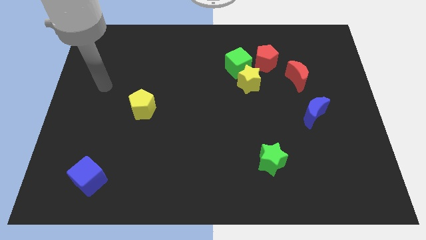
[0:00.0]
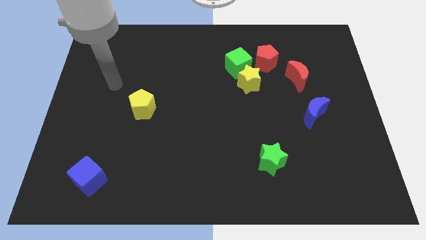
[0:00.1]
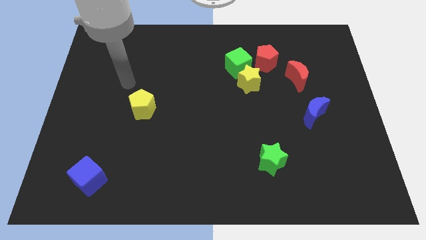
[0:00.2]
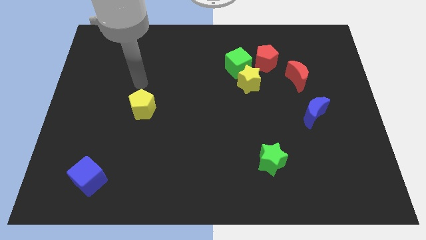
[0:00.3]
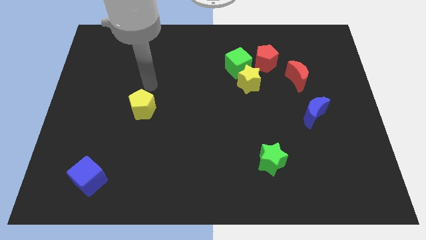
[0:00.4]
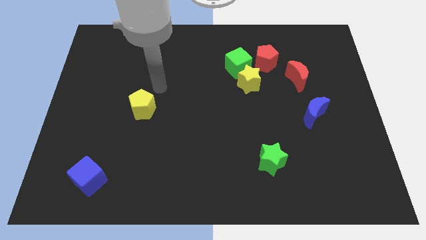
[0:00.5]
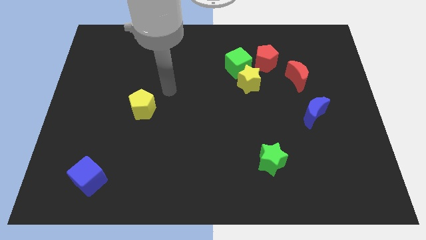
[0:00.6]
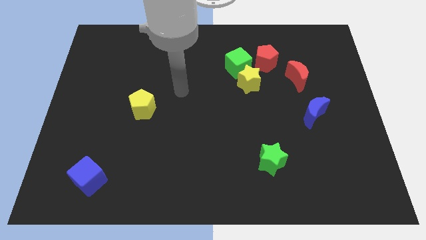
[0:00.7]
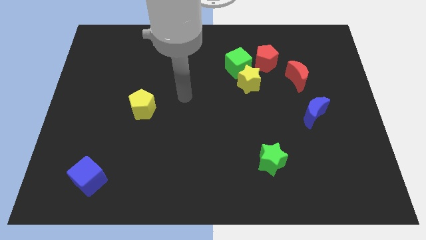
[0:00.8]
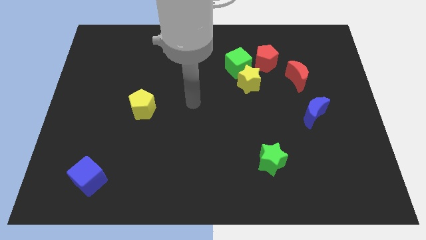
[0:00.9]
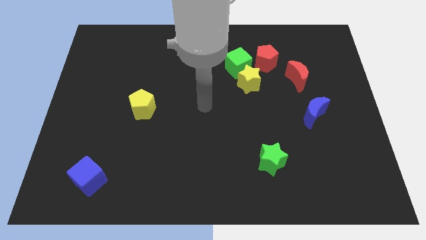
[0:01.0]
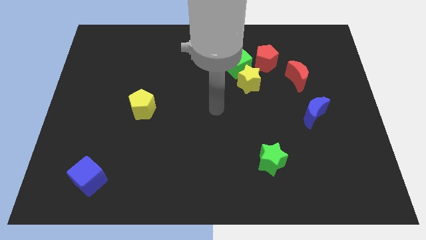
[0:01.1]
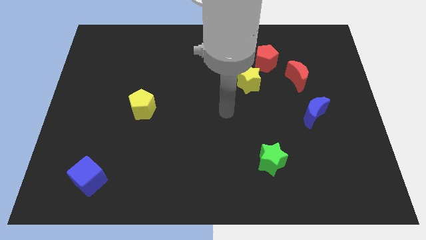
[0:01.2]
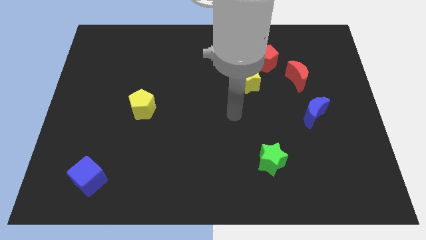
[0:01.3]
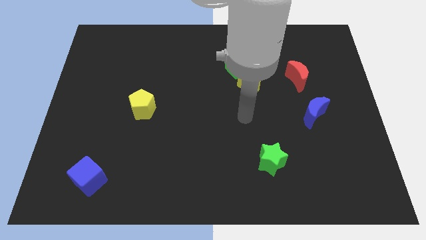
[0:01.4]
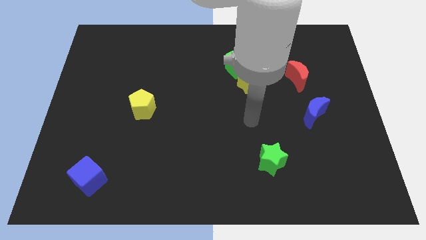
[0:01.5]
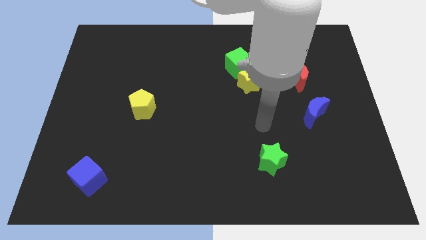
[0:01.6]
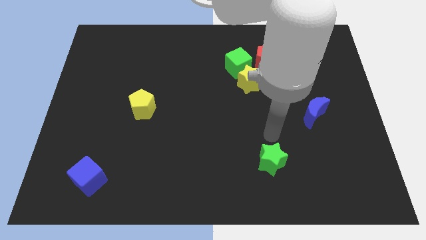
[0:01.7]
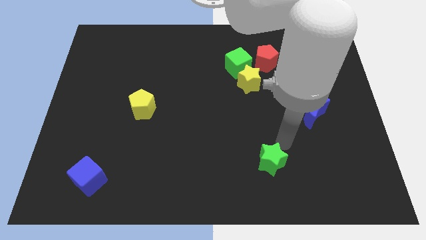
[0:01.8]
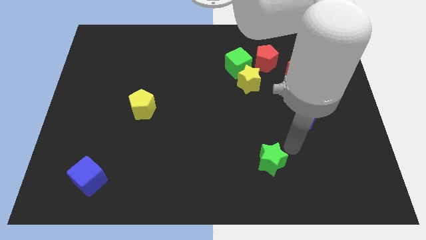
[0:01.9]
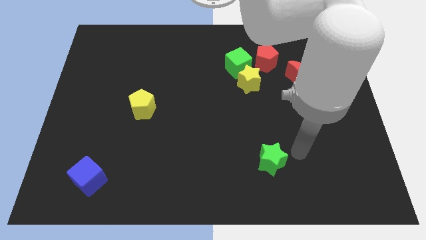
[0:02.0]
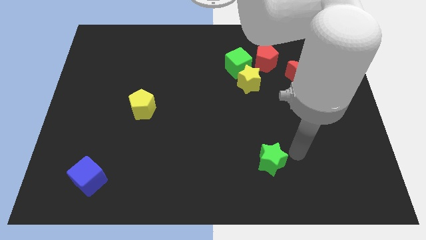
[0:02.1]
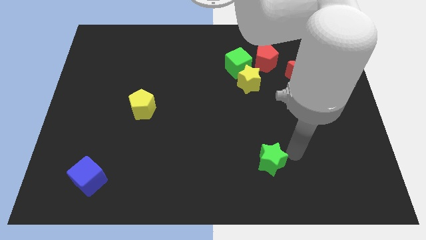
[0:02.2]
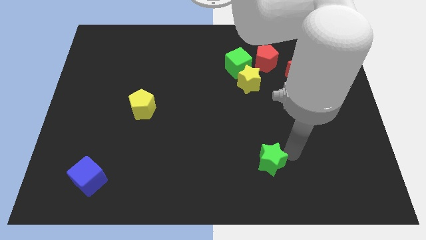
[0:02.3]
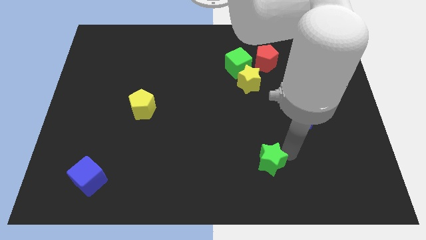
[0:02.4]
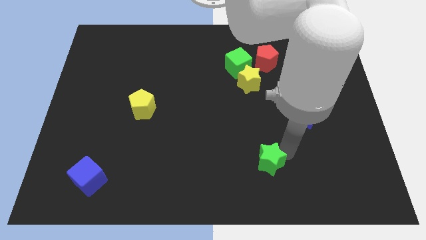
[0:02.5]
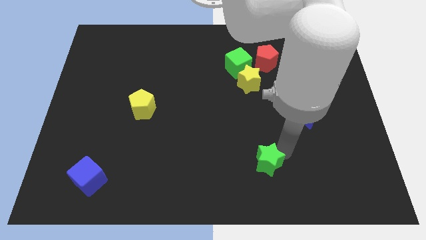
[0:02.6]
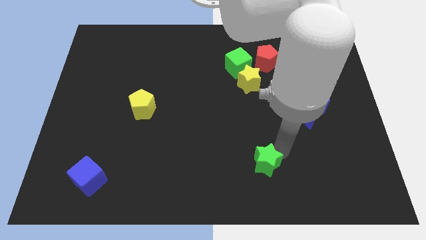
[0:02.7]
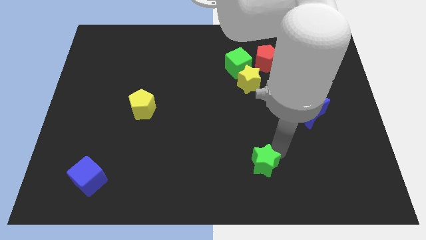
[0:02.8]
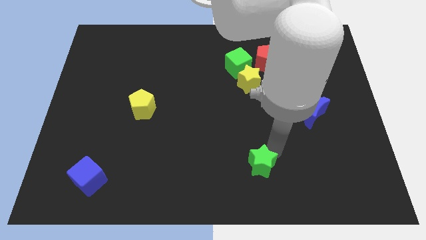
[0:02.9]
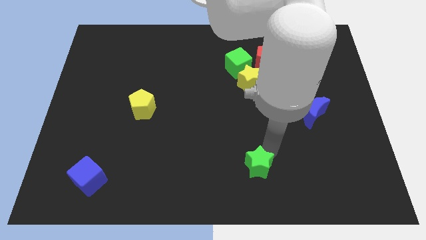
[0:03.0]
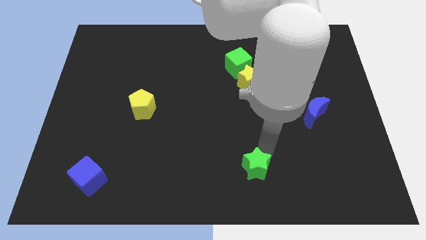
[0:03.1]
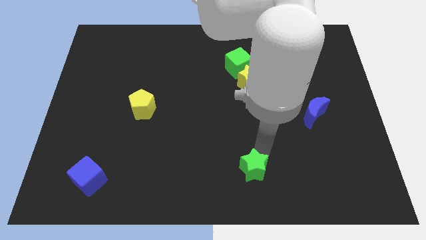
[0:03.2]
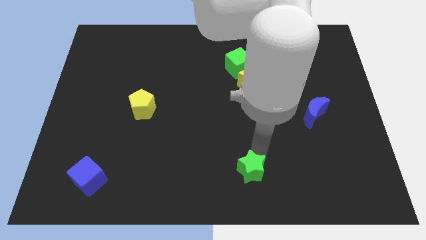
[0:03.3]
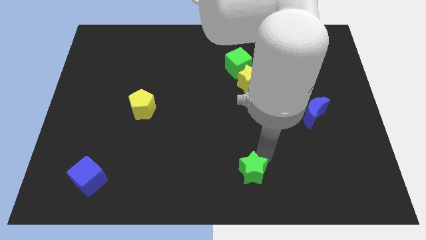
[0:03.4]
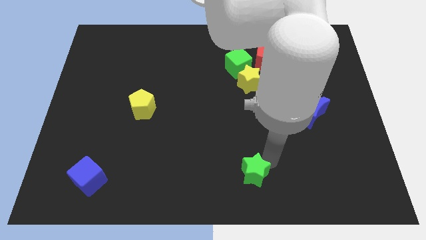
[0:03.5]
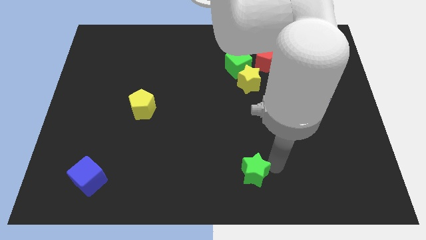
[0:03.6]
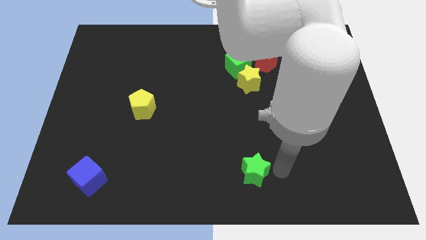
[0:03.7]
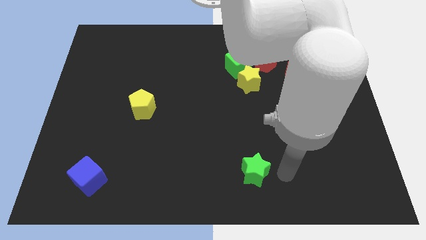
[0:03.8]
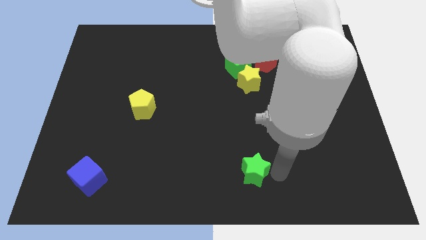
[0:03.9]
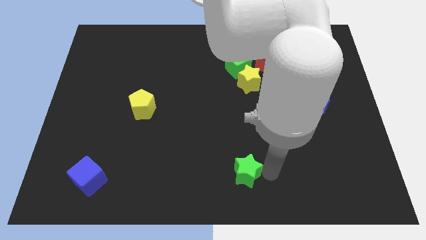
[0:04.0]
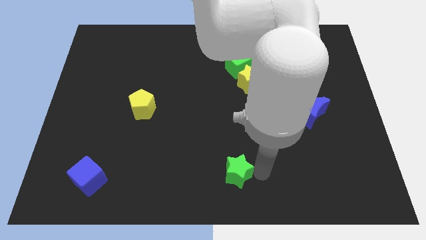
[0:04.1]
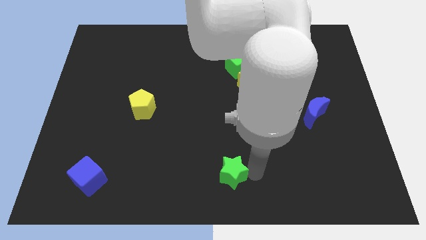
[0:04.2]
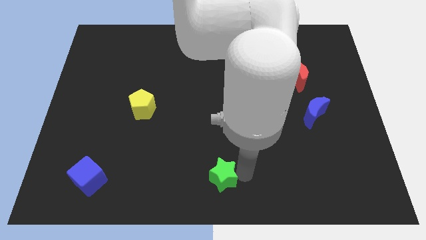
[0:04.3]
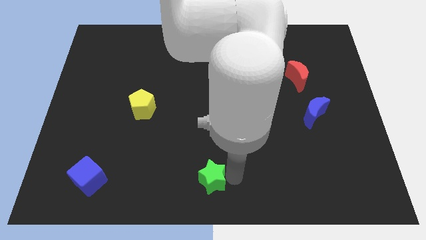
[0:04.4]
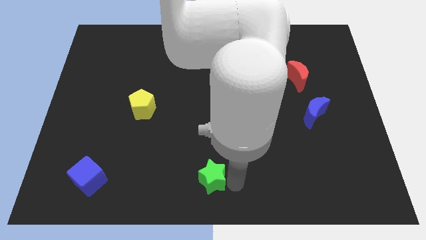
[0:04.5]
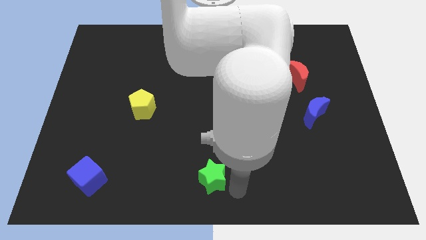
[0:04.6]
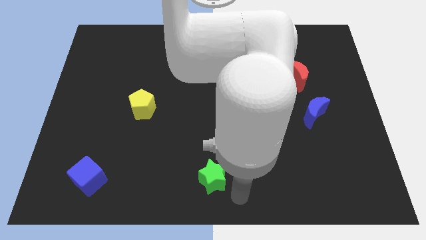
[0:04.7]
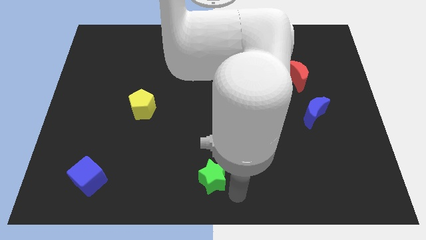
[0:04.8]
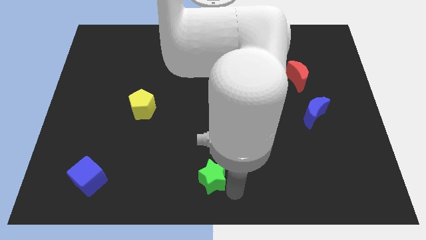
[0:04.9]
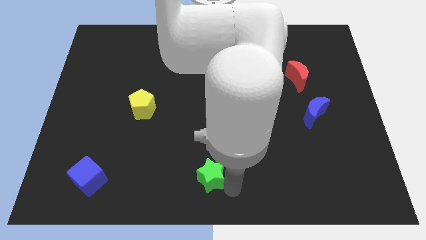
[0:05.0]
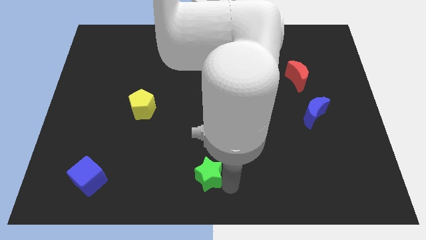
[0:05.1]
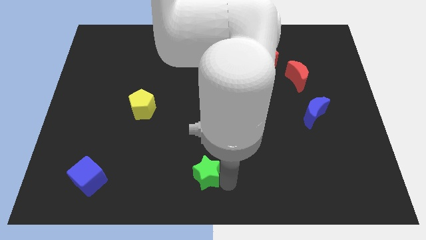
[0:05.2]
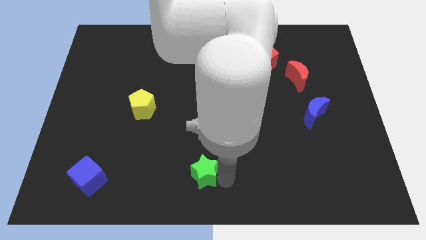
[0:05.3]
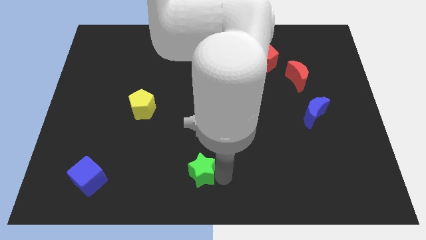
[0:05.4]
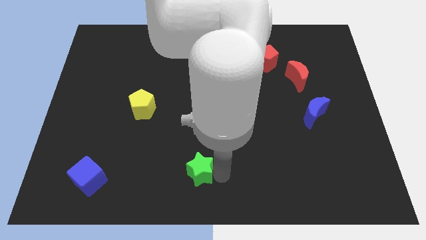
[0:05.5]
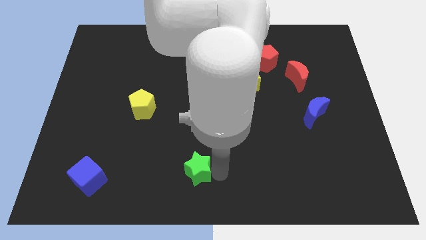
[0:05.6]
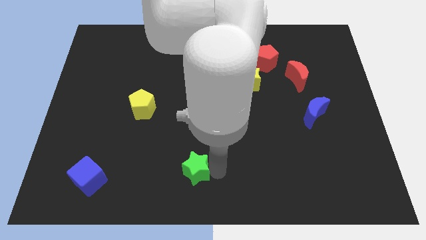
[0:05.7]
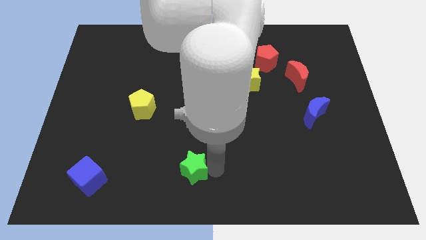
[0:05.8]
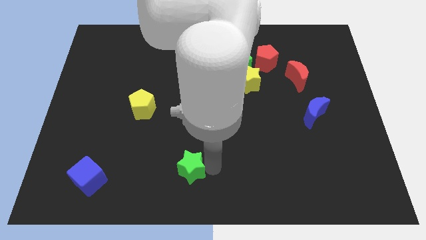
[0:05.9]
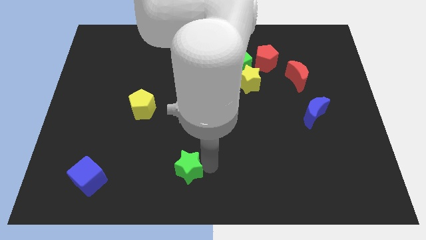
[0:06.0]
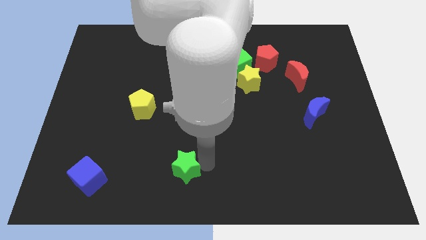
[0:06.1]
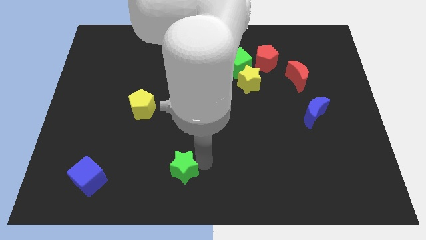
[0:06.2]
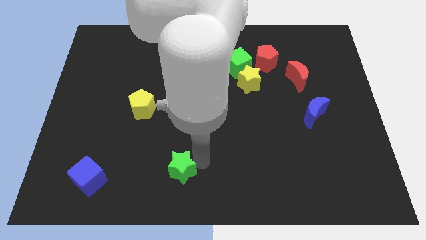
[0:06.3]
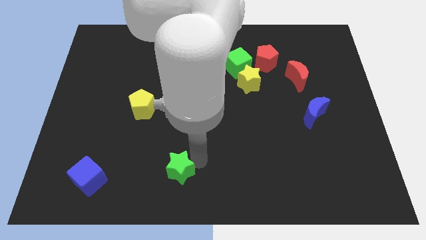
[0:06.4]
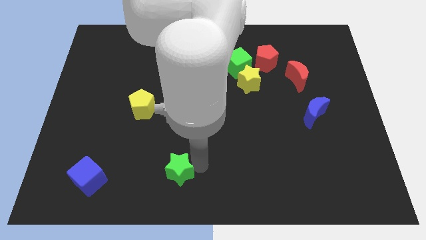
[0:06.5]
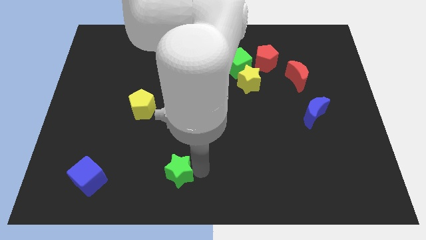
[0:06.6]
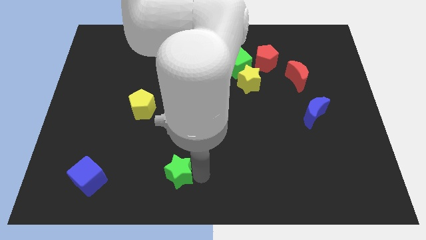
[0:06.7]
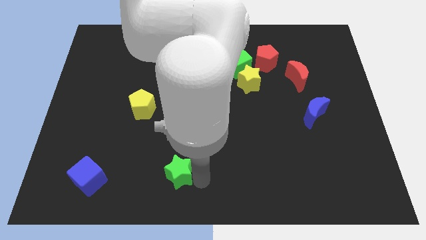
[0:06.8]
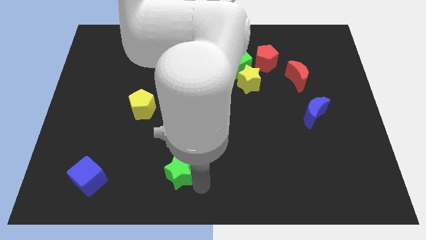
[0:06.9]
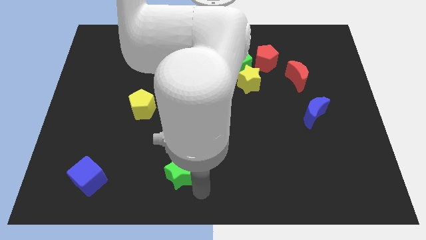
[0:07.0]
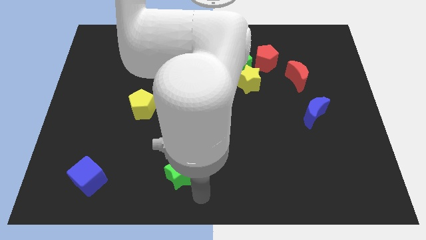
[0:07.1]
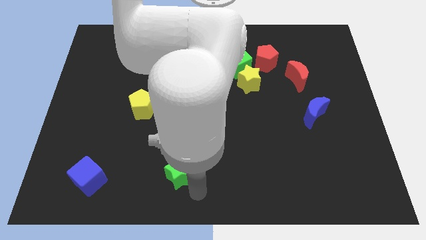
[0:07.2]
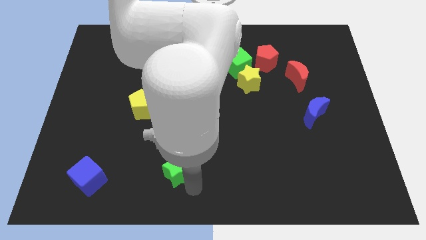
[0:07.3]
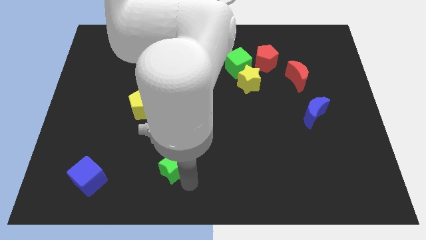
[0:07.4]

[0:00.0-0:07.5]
push the green star left

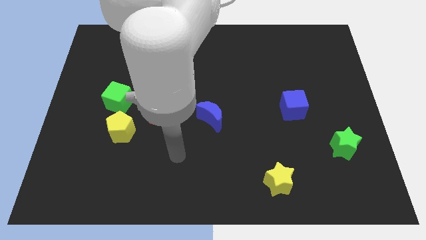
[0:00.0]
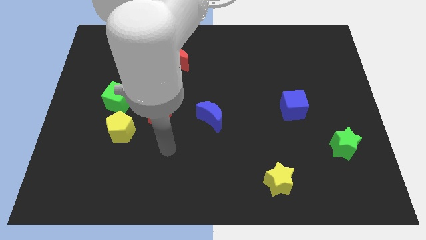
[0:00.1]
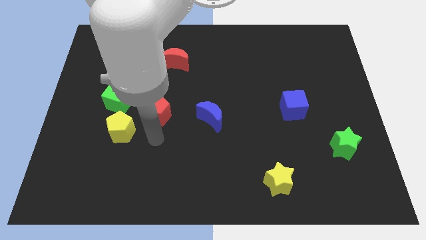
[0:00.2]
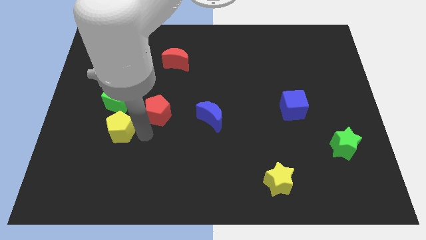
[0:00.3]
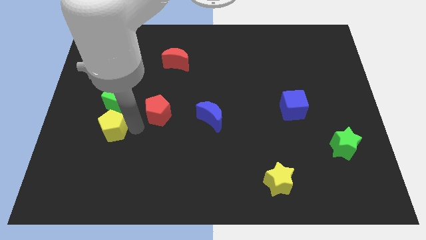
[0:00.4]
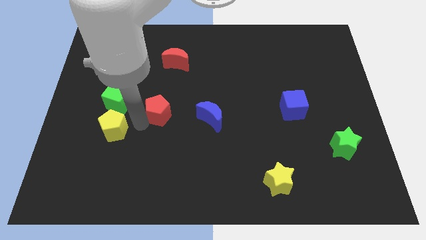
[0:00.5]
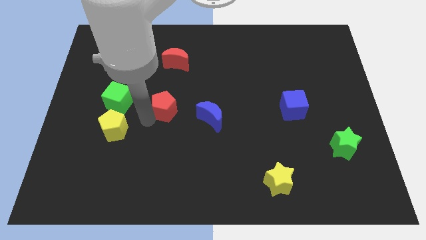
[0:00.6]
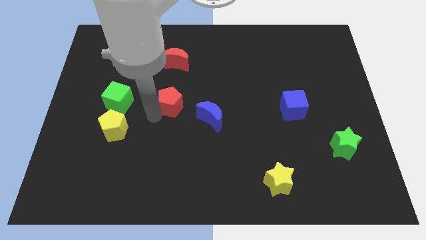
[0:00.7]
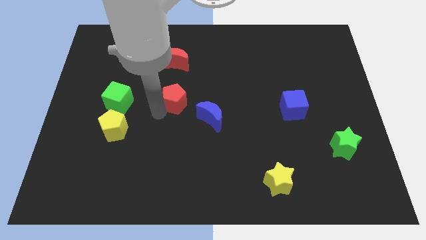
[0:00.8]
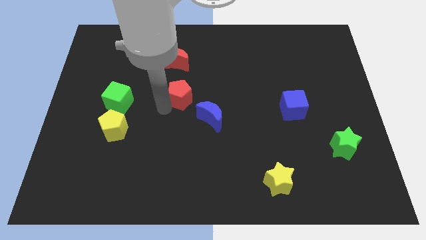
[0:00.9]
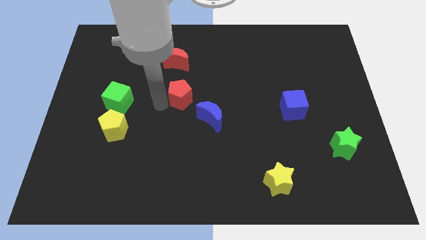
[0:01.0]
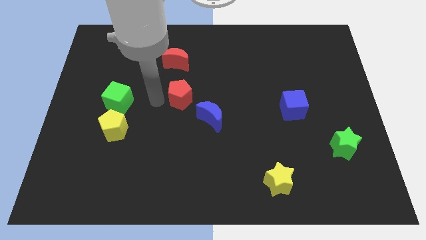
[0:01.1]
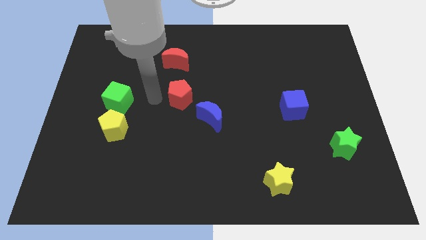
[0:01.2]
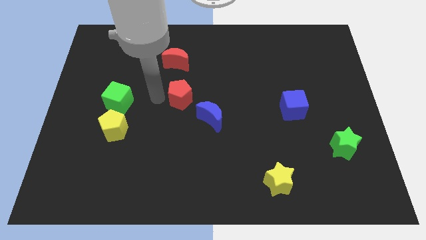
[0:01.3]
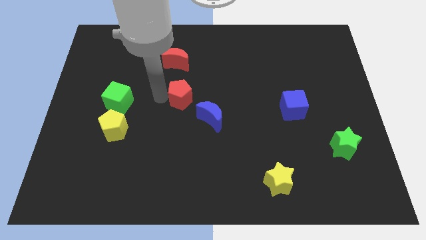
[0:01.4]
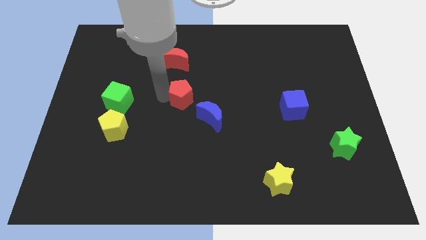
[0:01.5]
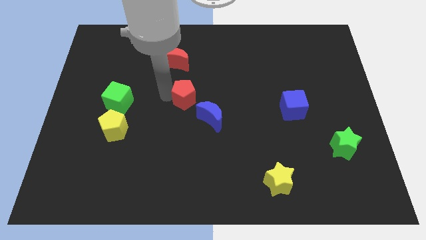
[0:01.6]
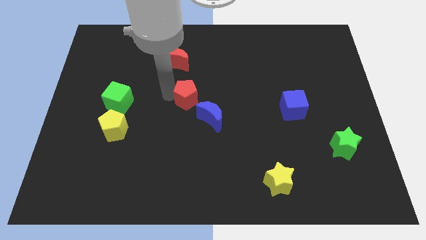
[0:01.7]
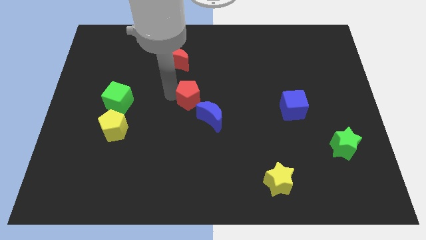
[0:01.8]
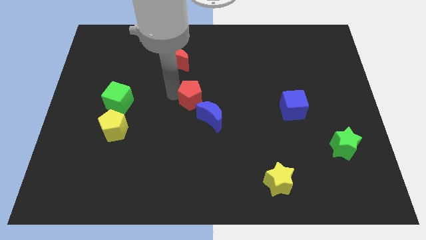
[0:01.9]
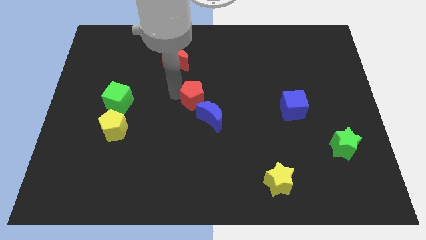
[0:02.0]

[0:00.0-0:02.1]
move the red pentagon right somewhat
